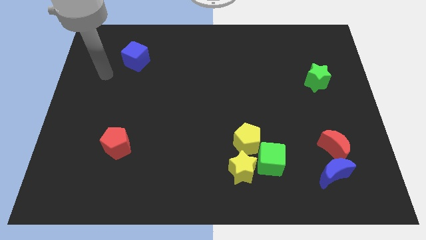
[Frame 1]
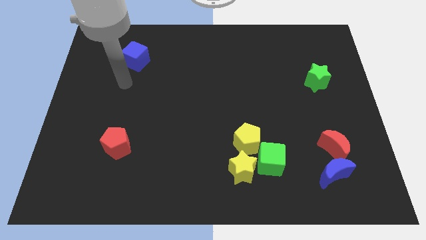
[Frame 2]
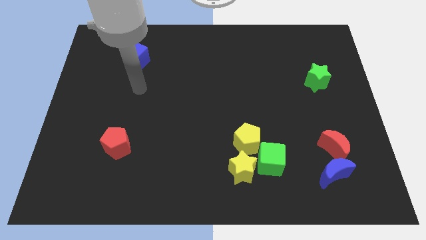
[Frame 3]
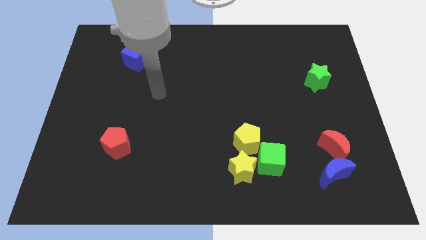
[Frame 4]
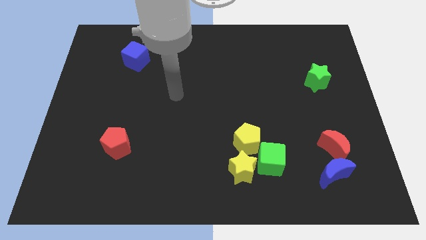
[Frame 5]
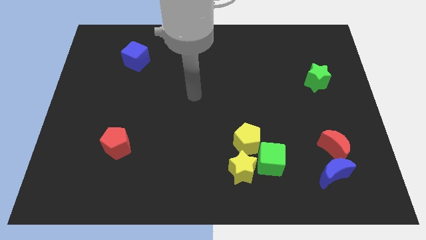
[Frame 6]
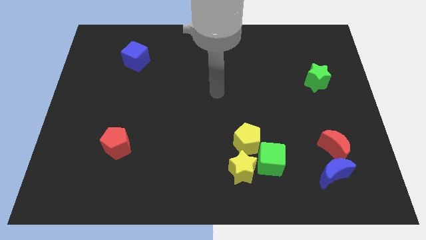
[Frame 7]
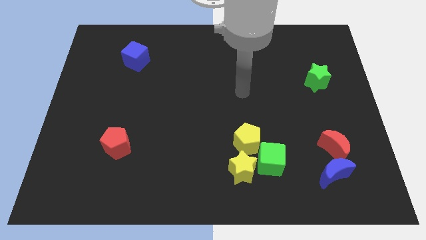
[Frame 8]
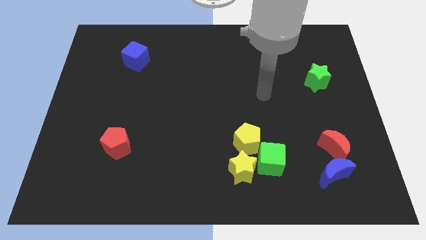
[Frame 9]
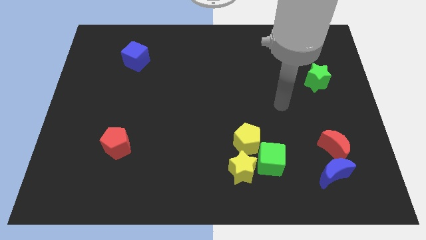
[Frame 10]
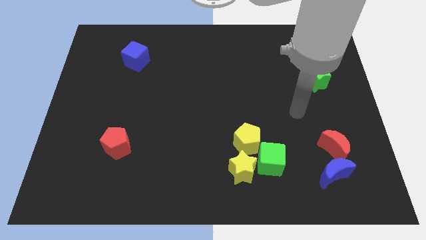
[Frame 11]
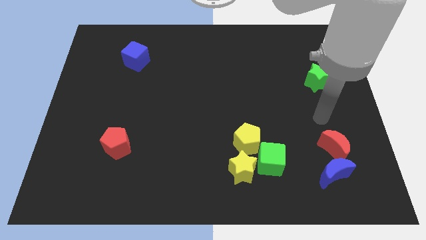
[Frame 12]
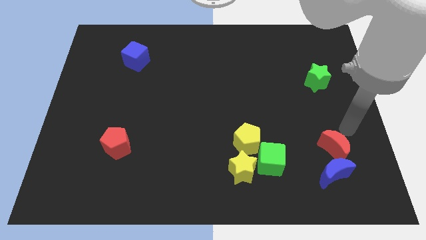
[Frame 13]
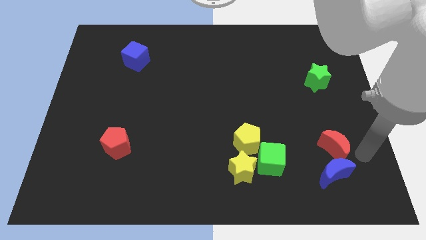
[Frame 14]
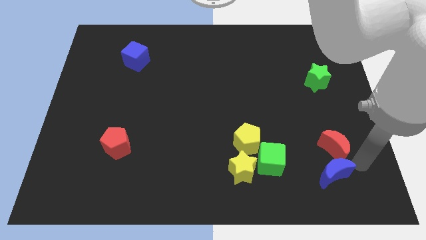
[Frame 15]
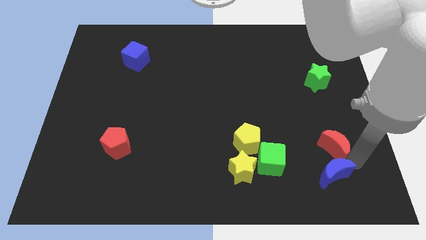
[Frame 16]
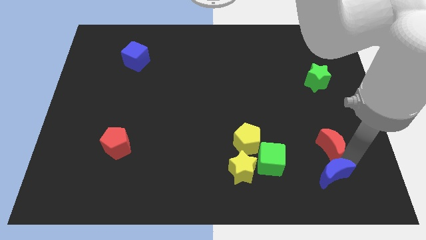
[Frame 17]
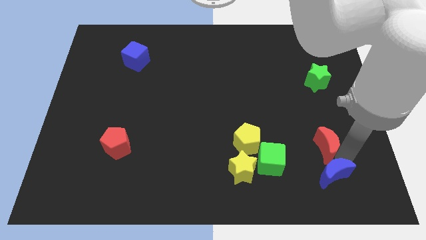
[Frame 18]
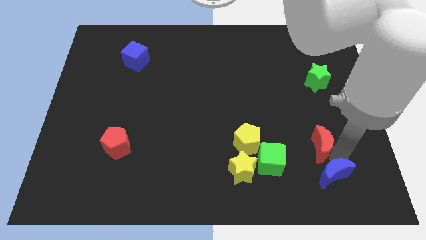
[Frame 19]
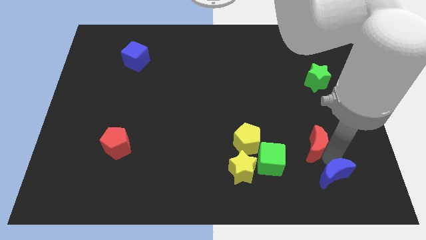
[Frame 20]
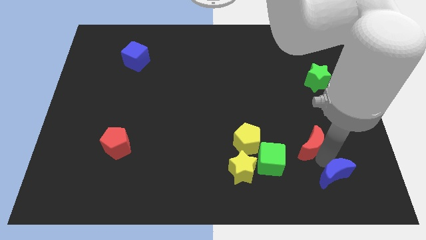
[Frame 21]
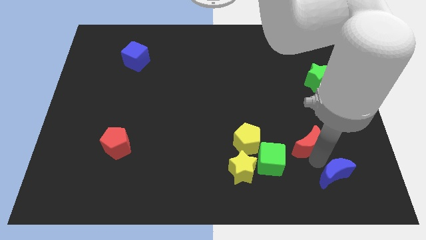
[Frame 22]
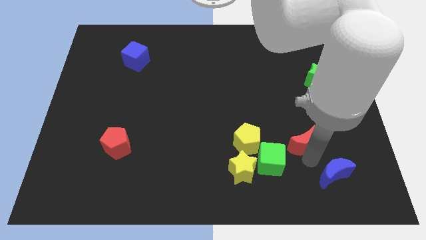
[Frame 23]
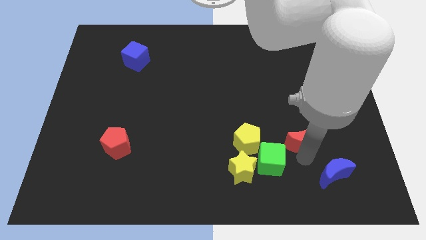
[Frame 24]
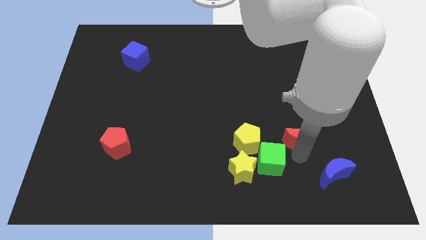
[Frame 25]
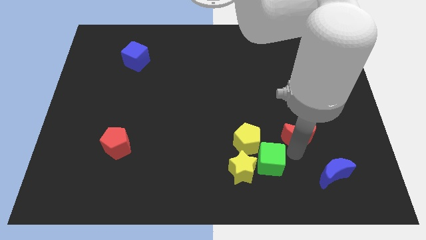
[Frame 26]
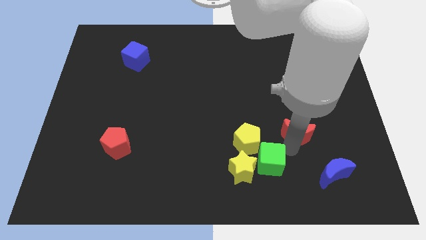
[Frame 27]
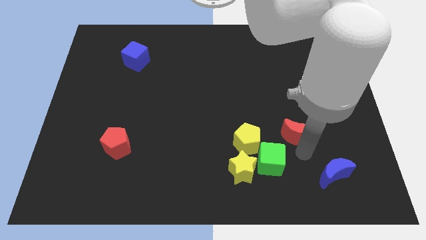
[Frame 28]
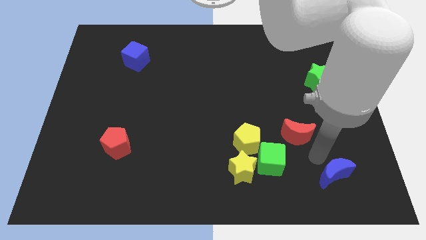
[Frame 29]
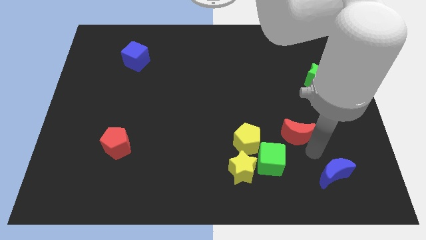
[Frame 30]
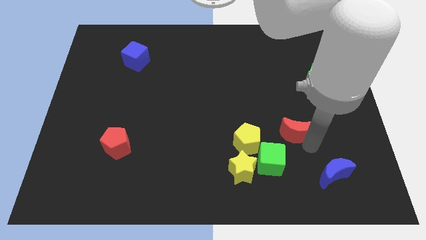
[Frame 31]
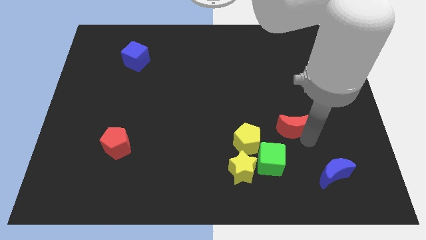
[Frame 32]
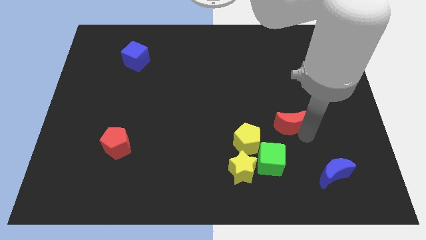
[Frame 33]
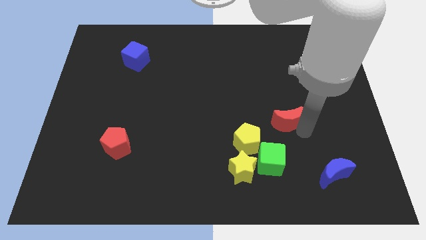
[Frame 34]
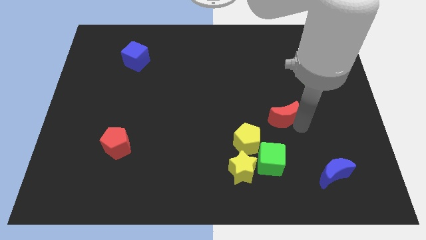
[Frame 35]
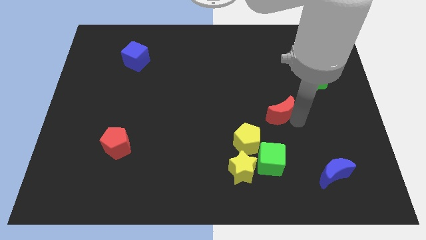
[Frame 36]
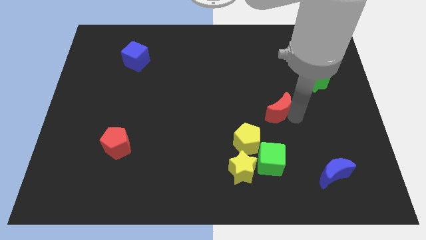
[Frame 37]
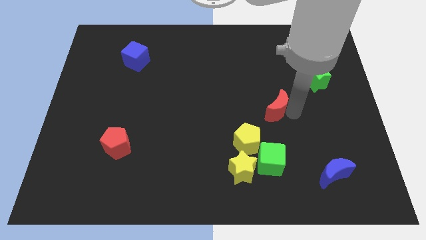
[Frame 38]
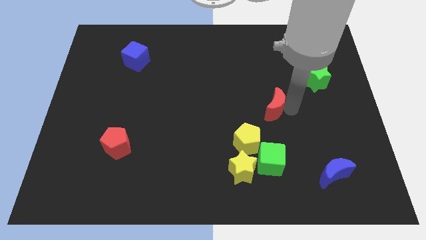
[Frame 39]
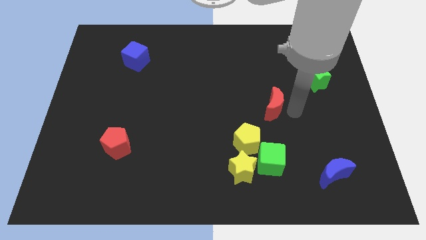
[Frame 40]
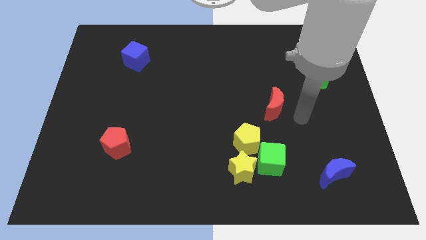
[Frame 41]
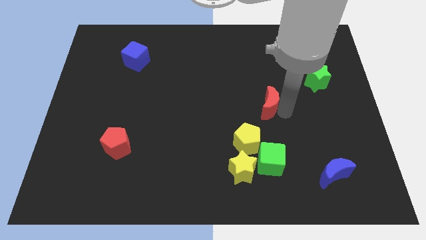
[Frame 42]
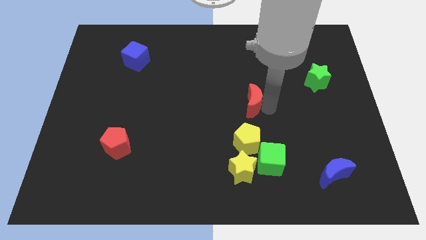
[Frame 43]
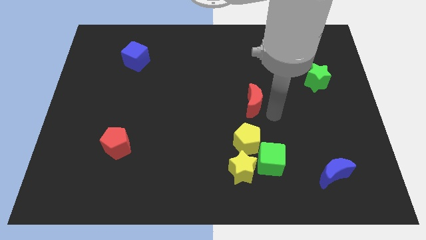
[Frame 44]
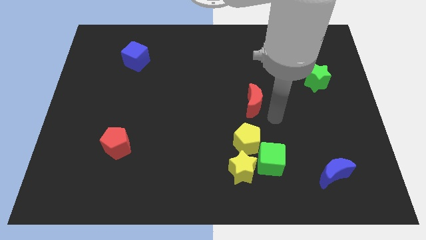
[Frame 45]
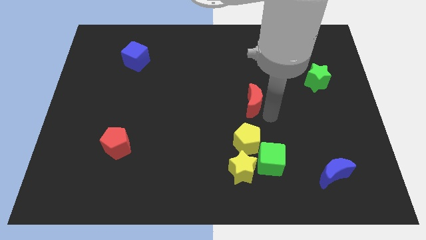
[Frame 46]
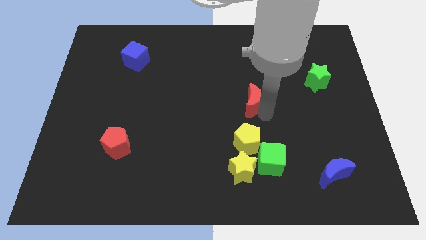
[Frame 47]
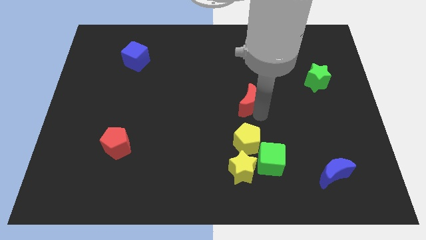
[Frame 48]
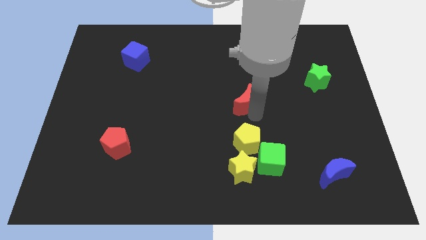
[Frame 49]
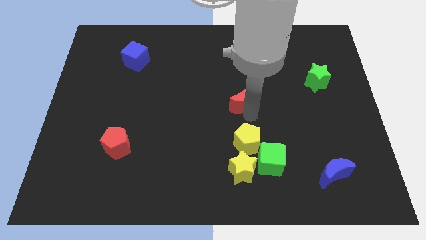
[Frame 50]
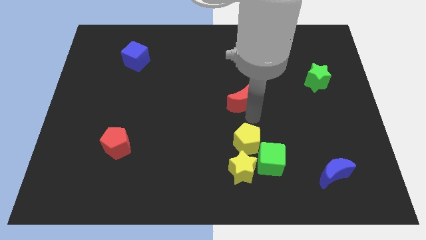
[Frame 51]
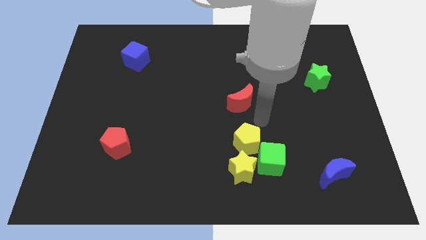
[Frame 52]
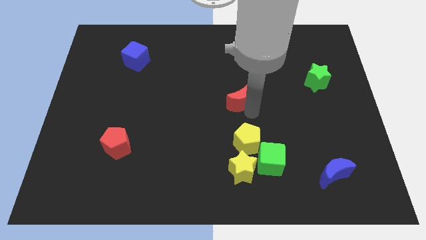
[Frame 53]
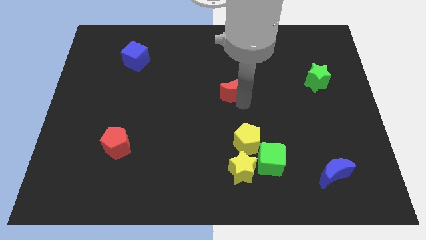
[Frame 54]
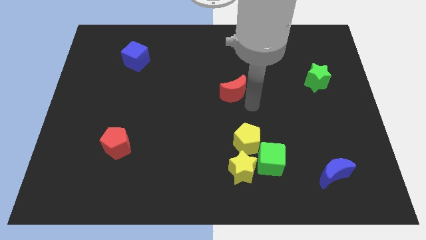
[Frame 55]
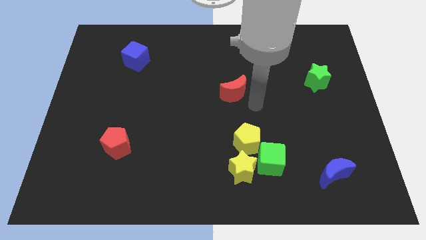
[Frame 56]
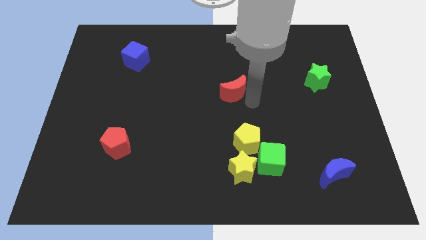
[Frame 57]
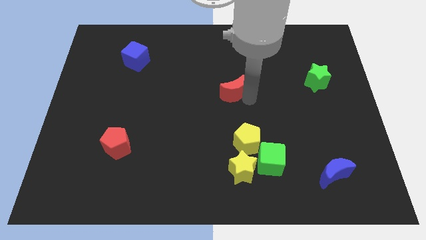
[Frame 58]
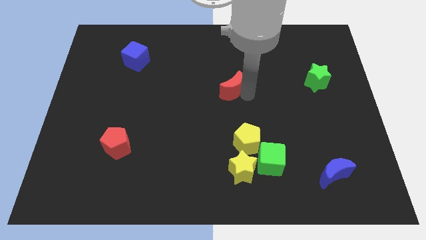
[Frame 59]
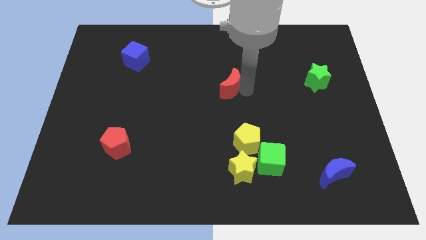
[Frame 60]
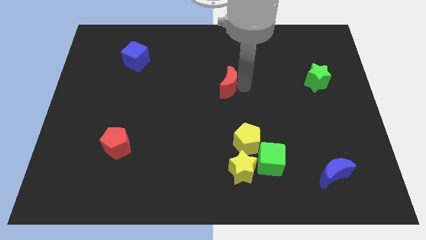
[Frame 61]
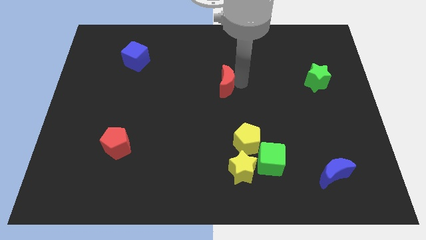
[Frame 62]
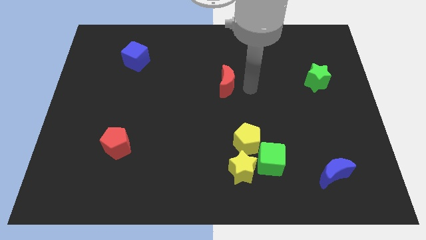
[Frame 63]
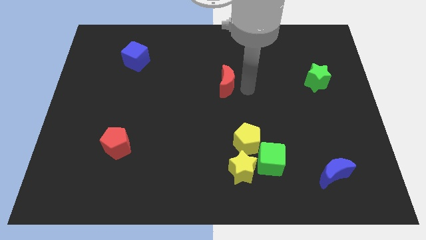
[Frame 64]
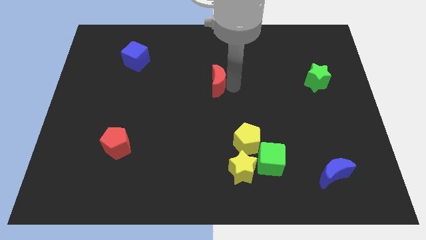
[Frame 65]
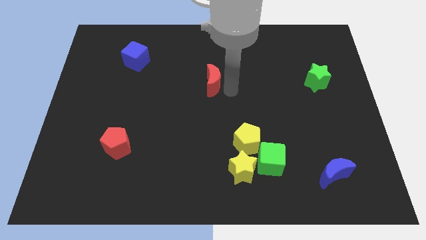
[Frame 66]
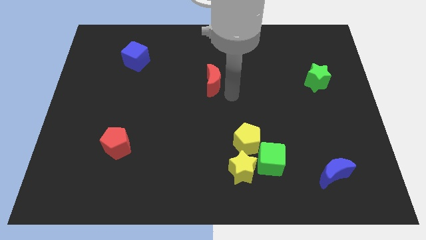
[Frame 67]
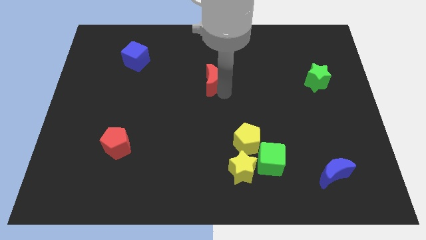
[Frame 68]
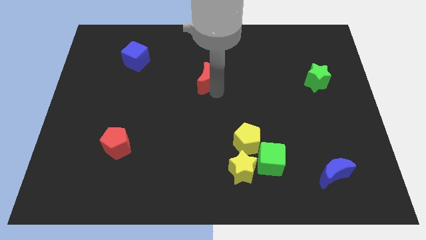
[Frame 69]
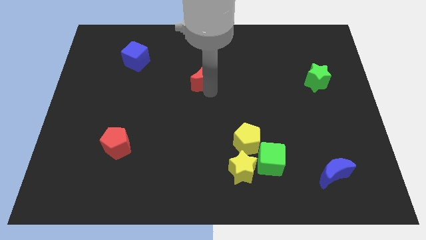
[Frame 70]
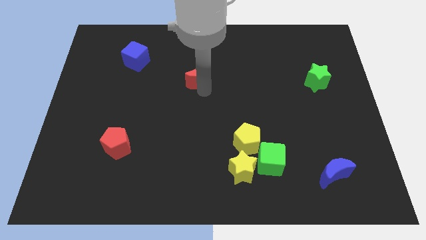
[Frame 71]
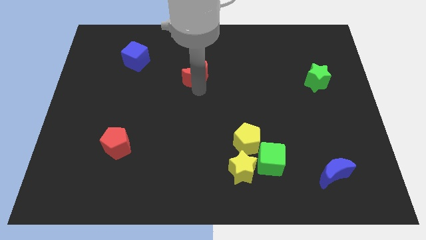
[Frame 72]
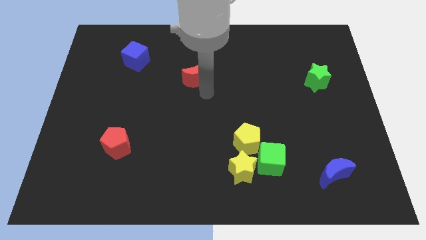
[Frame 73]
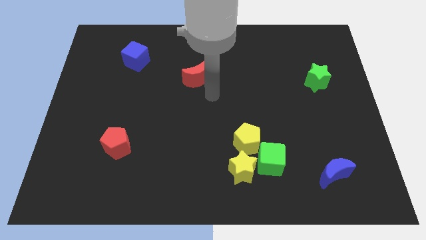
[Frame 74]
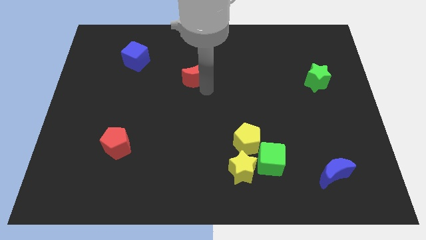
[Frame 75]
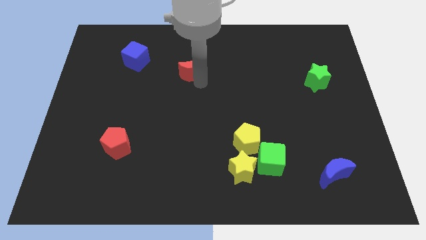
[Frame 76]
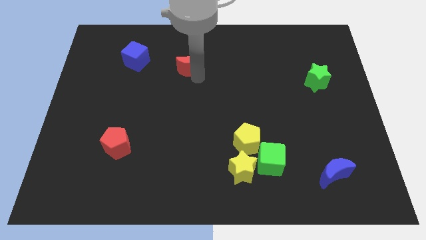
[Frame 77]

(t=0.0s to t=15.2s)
push the red moon just right of the blue cube
